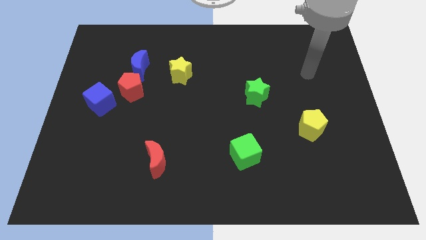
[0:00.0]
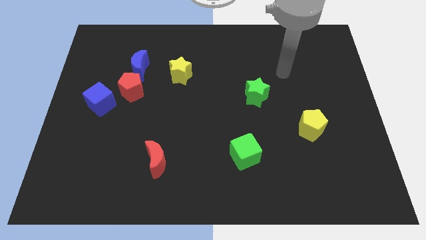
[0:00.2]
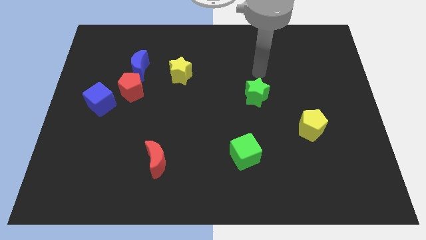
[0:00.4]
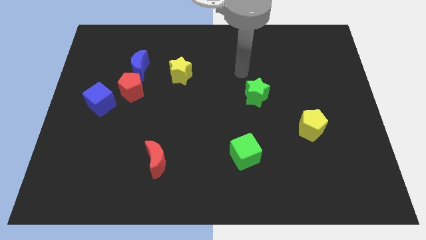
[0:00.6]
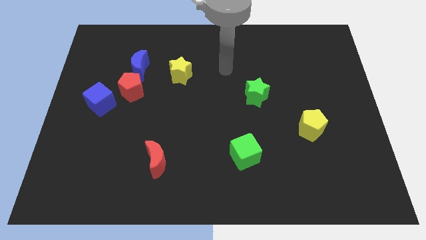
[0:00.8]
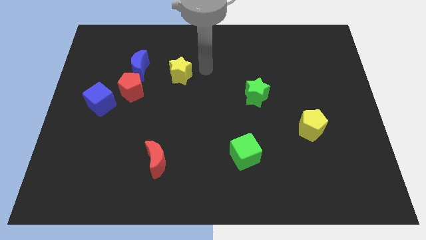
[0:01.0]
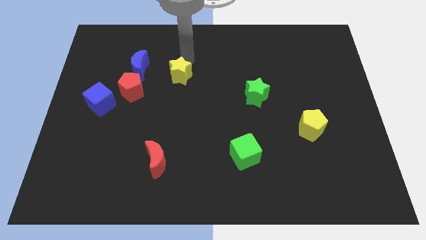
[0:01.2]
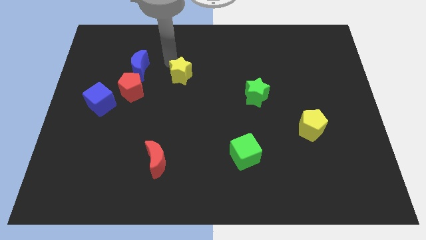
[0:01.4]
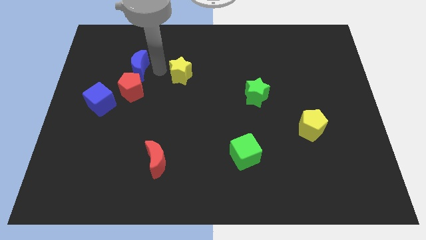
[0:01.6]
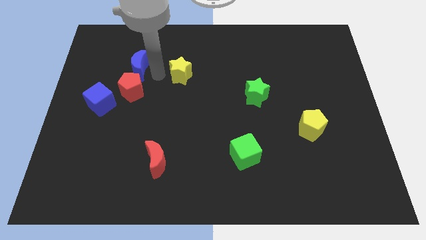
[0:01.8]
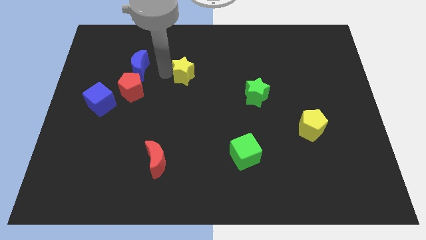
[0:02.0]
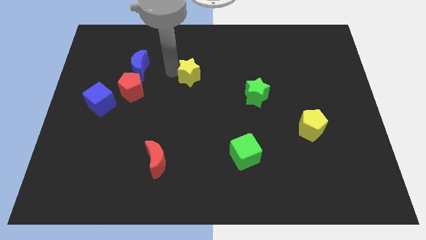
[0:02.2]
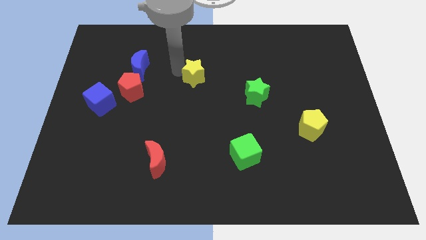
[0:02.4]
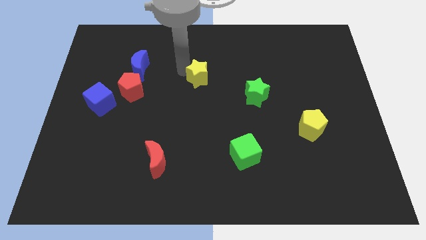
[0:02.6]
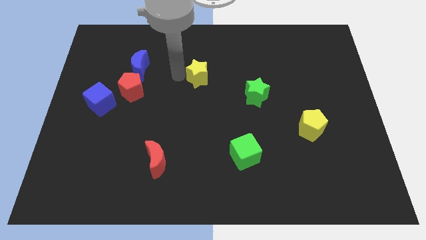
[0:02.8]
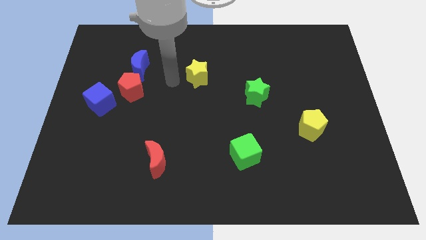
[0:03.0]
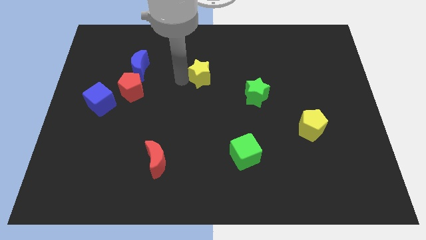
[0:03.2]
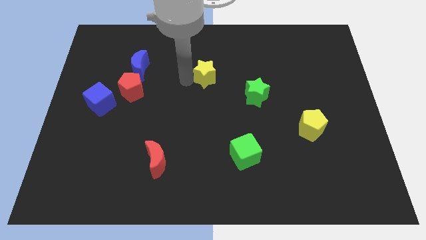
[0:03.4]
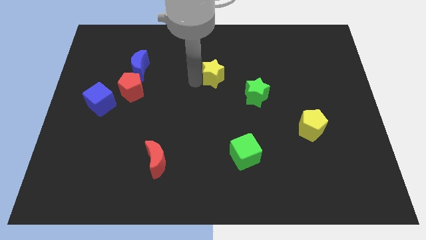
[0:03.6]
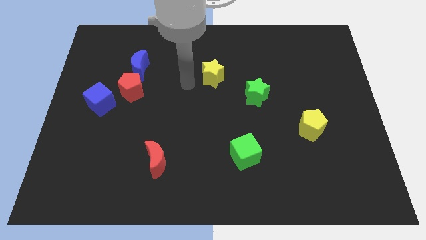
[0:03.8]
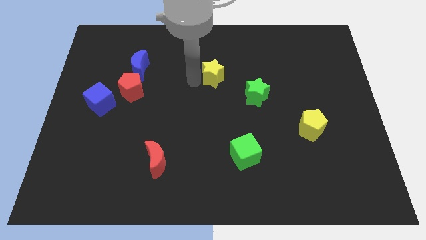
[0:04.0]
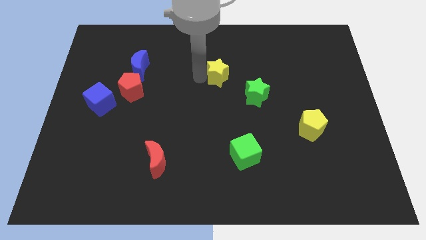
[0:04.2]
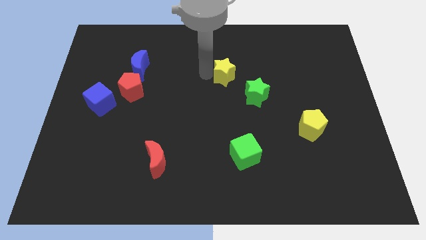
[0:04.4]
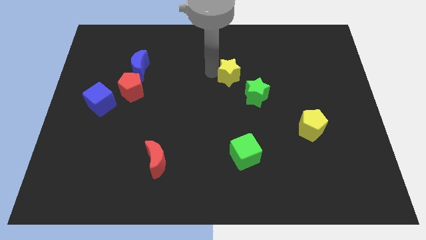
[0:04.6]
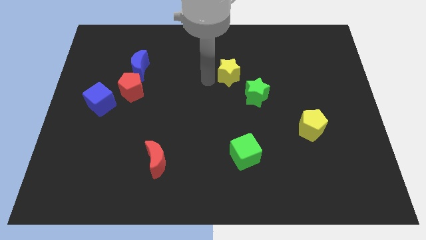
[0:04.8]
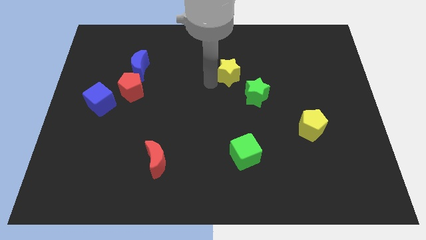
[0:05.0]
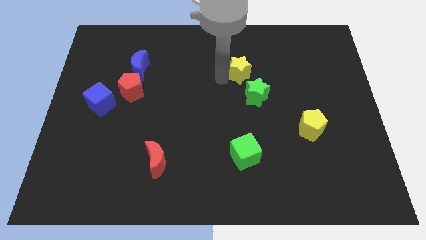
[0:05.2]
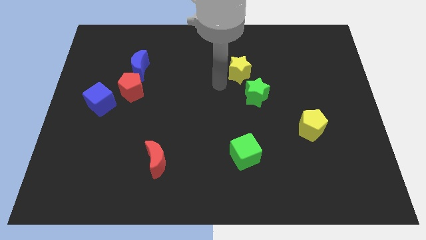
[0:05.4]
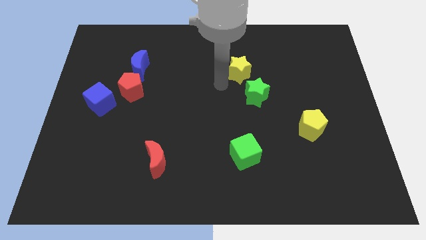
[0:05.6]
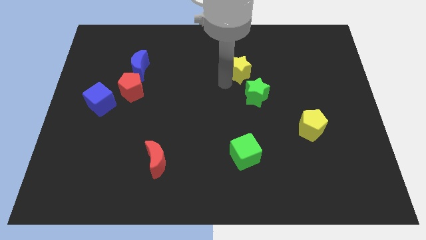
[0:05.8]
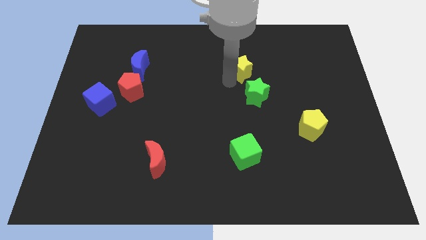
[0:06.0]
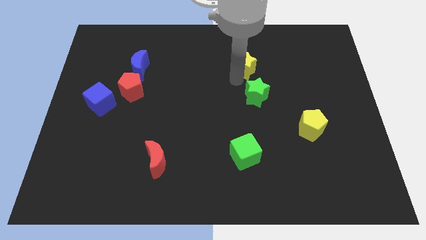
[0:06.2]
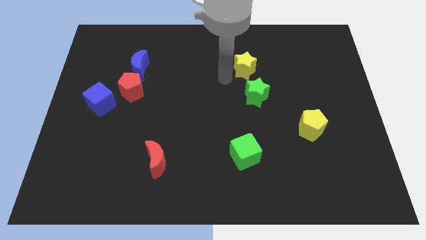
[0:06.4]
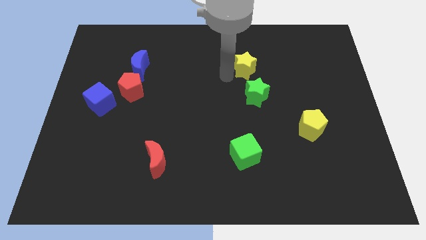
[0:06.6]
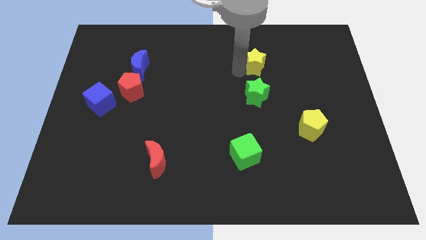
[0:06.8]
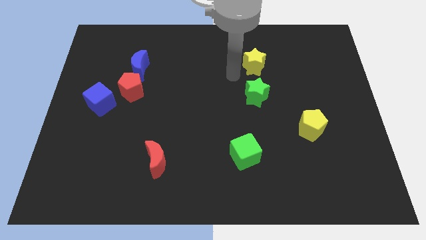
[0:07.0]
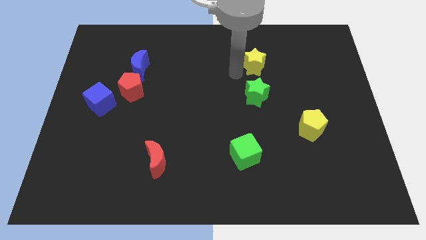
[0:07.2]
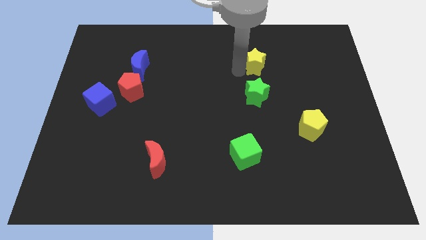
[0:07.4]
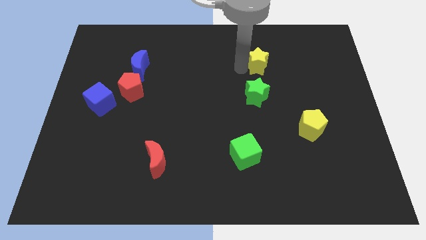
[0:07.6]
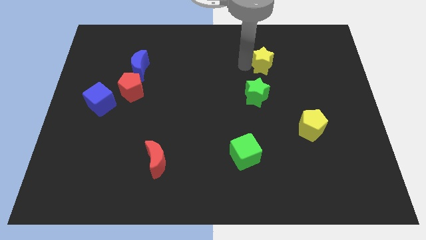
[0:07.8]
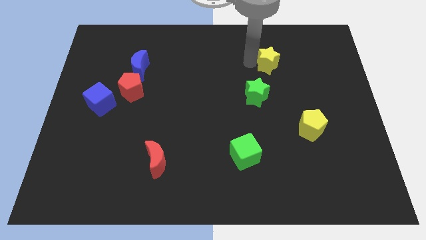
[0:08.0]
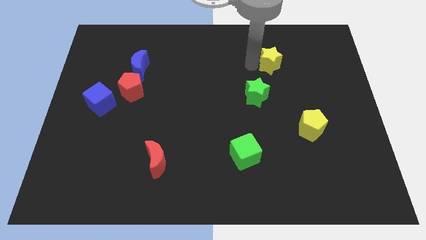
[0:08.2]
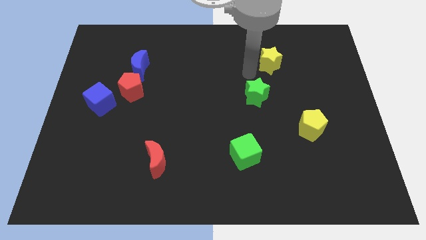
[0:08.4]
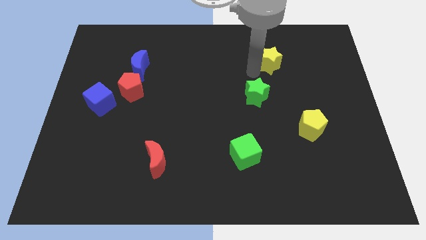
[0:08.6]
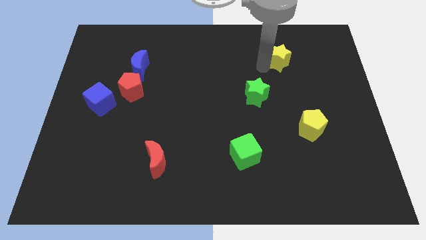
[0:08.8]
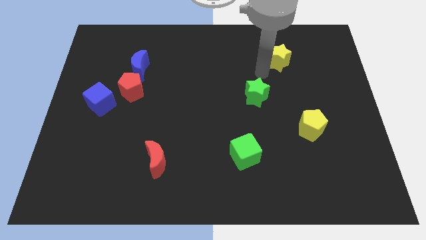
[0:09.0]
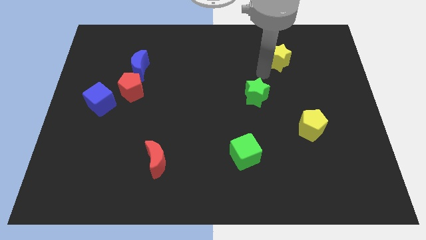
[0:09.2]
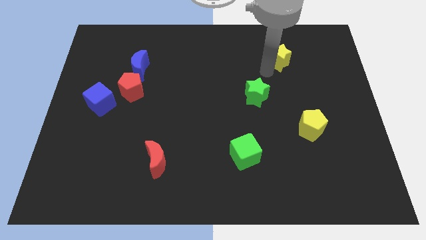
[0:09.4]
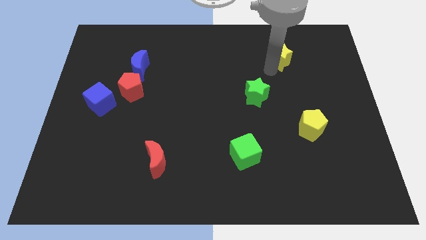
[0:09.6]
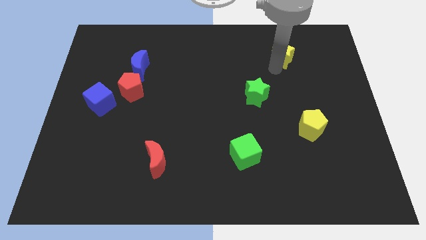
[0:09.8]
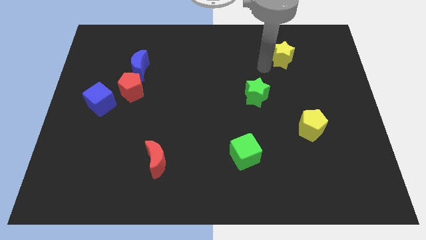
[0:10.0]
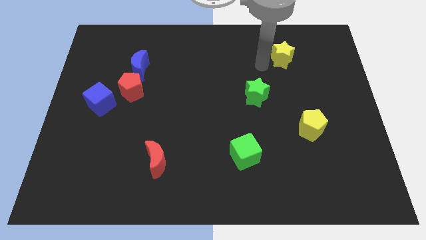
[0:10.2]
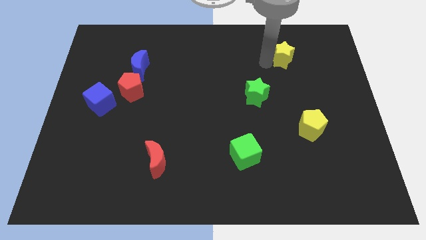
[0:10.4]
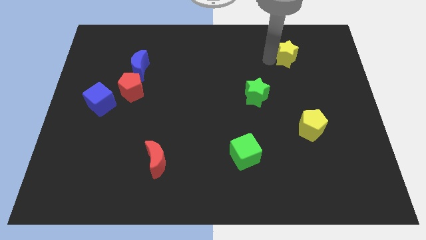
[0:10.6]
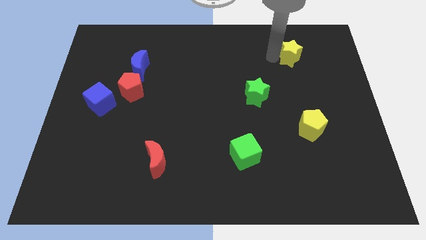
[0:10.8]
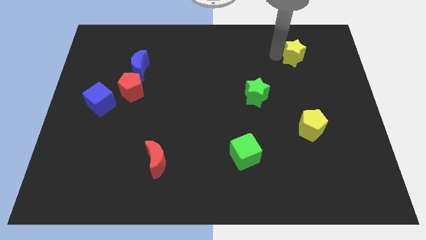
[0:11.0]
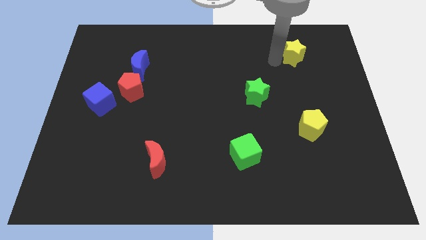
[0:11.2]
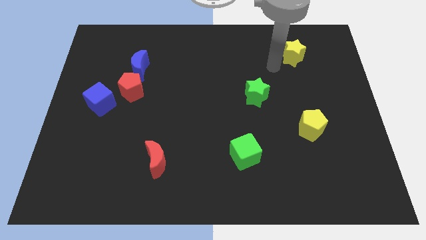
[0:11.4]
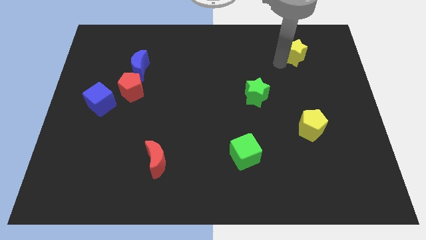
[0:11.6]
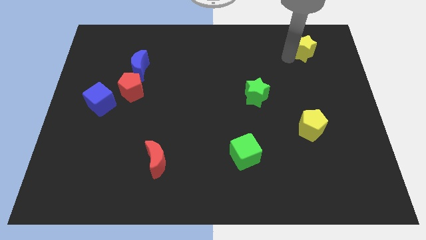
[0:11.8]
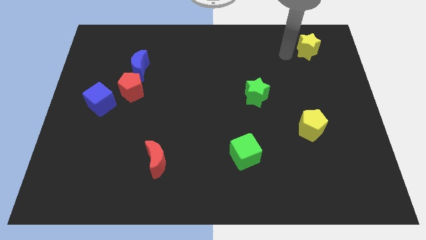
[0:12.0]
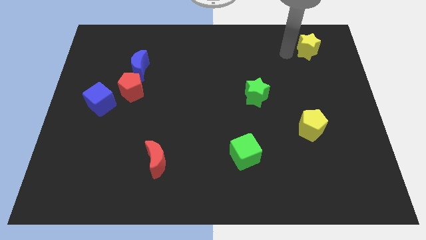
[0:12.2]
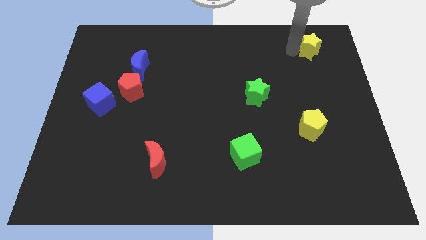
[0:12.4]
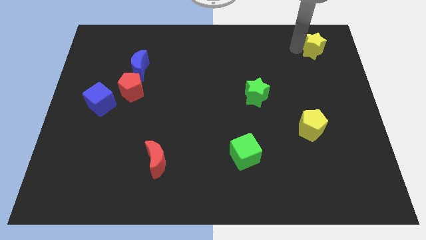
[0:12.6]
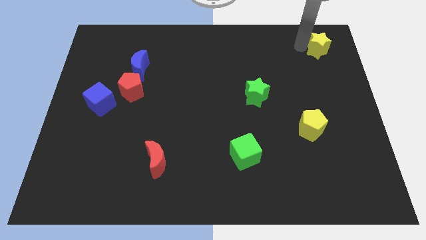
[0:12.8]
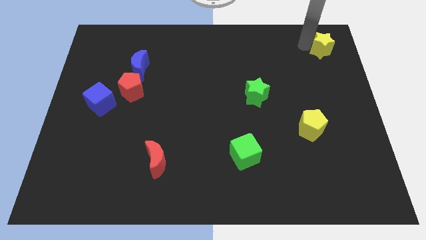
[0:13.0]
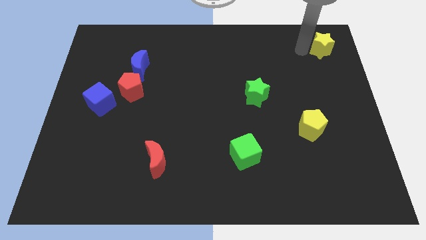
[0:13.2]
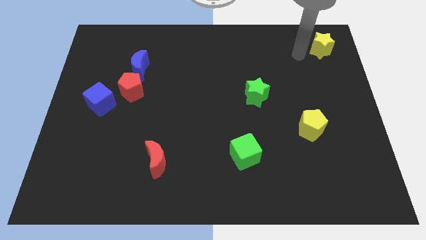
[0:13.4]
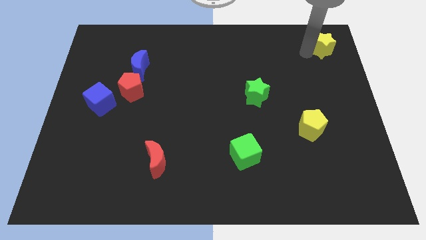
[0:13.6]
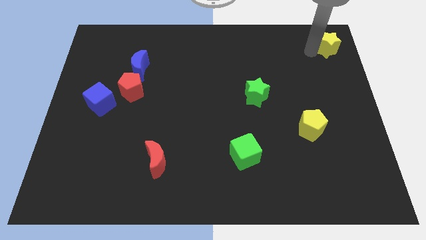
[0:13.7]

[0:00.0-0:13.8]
slide the yellow star to the top right
